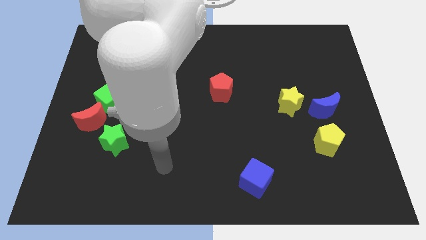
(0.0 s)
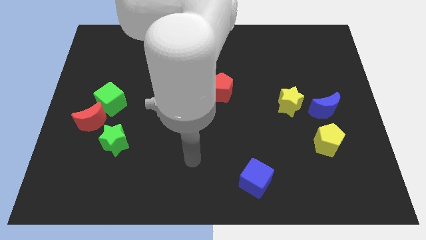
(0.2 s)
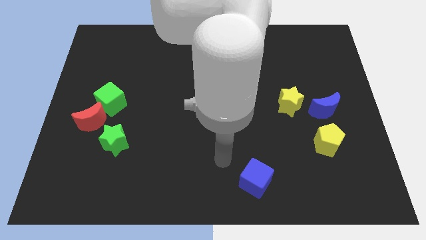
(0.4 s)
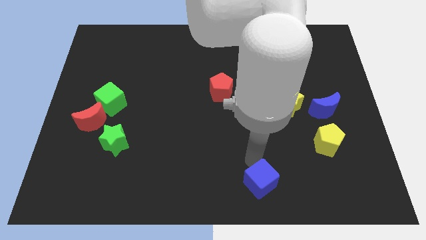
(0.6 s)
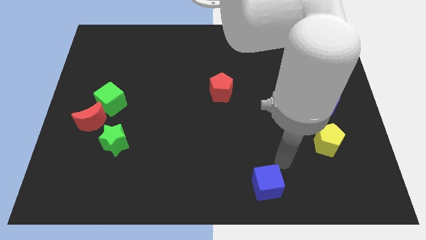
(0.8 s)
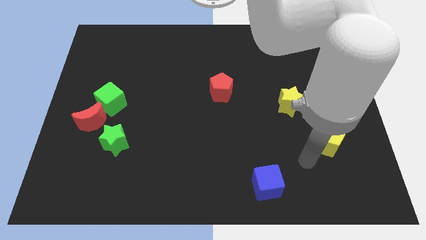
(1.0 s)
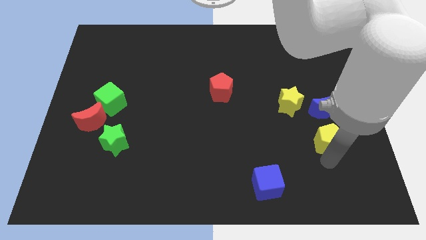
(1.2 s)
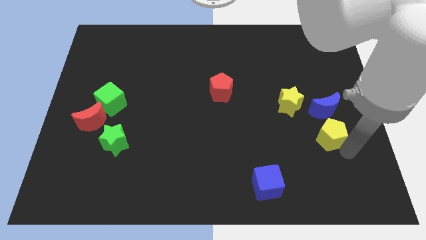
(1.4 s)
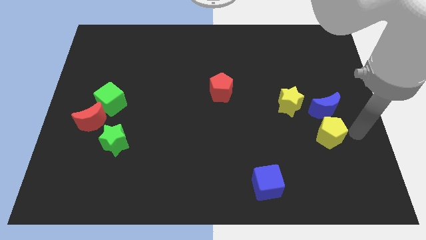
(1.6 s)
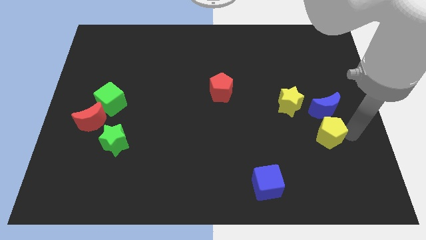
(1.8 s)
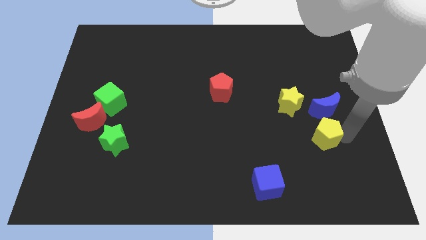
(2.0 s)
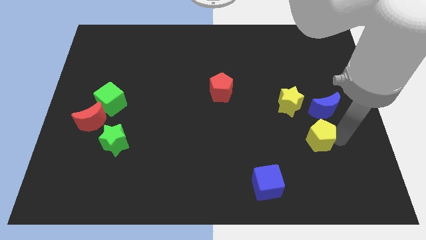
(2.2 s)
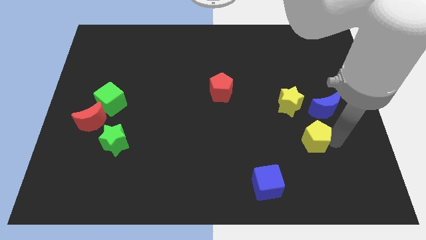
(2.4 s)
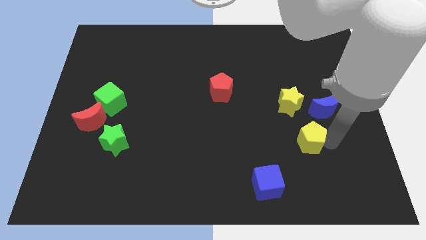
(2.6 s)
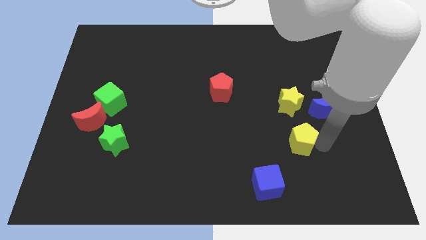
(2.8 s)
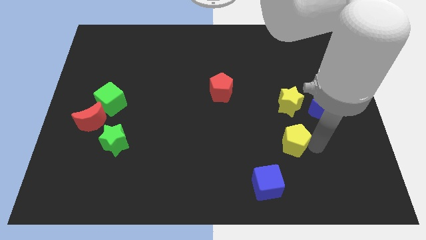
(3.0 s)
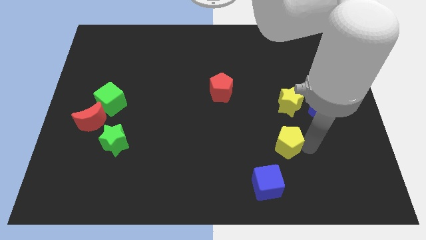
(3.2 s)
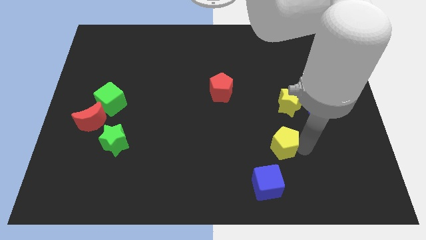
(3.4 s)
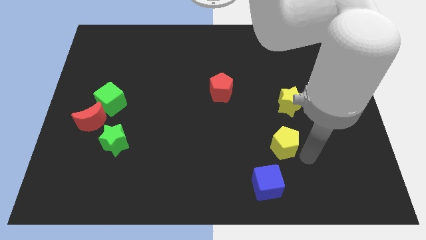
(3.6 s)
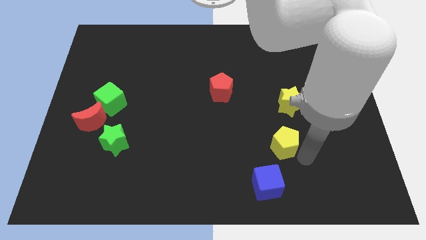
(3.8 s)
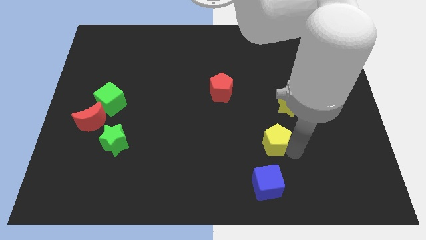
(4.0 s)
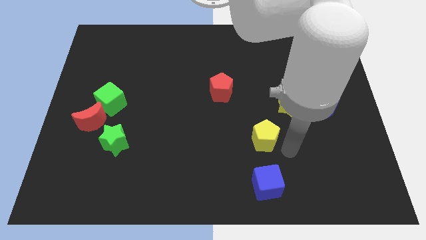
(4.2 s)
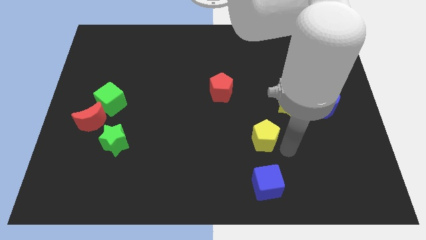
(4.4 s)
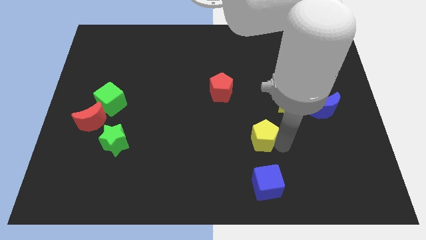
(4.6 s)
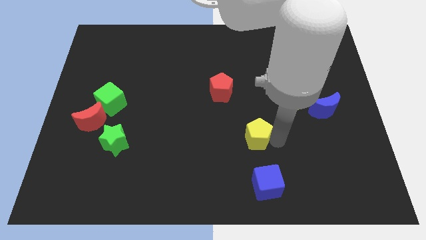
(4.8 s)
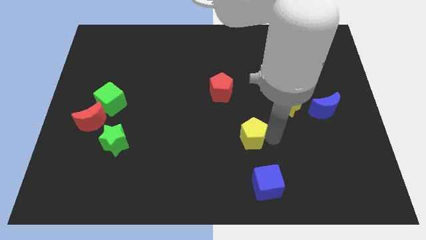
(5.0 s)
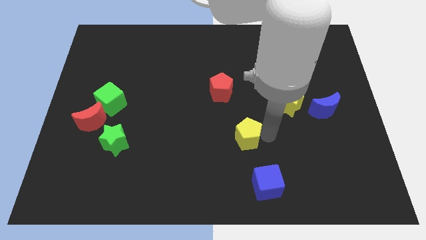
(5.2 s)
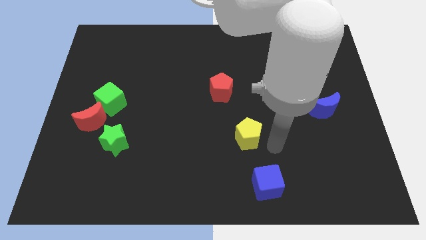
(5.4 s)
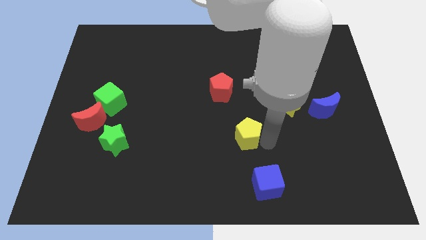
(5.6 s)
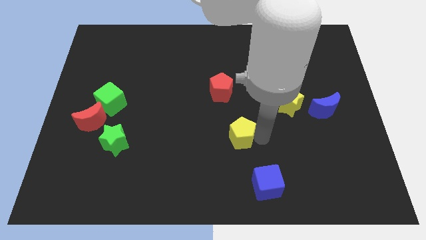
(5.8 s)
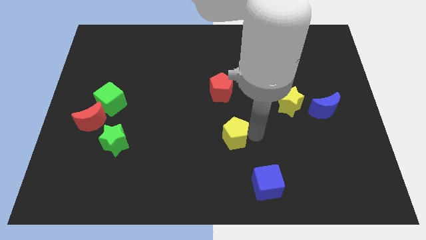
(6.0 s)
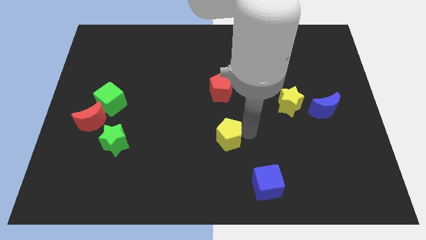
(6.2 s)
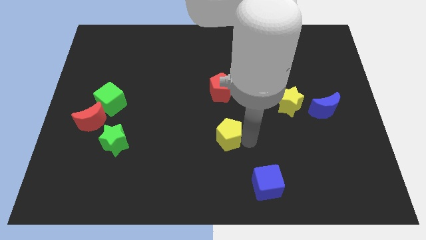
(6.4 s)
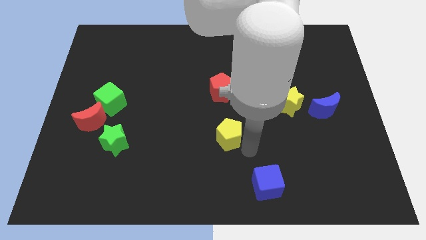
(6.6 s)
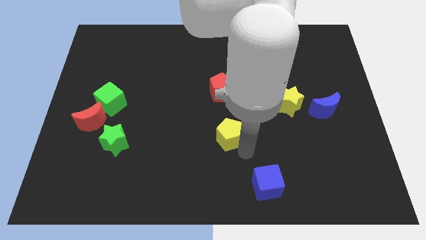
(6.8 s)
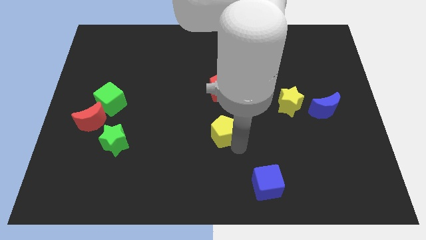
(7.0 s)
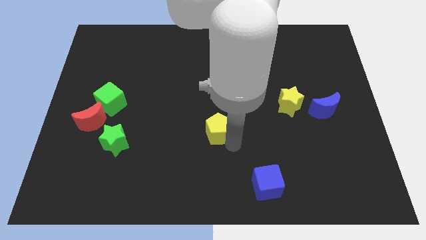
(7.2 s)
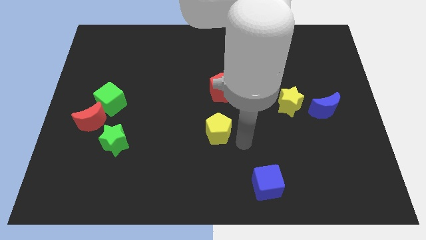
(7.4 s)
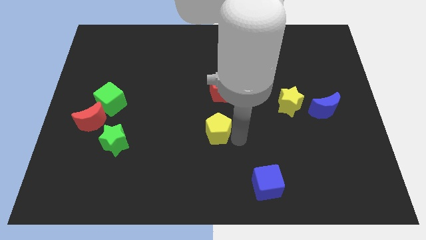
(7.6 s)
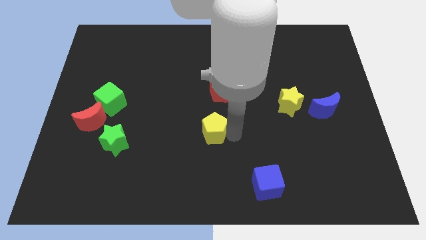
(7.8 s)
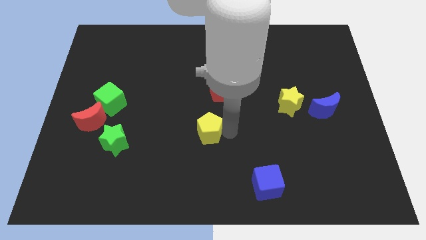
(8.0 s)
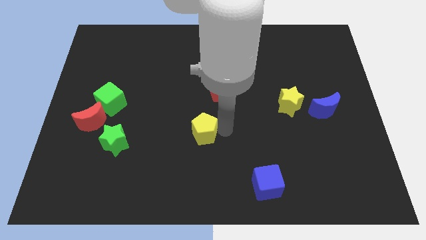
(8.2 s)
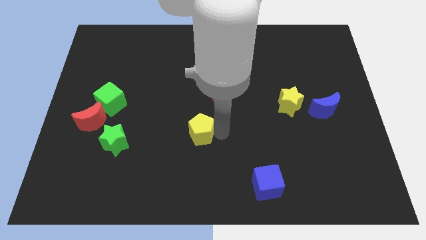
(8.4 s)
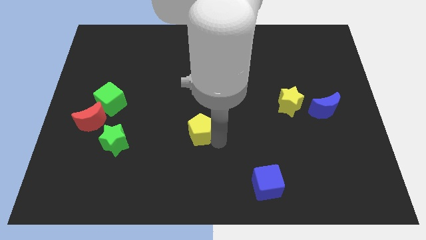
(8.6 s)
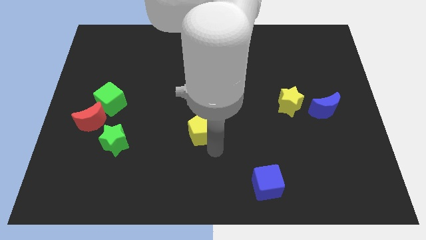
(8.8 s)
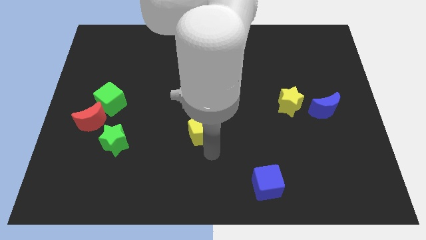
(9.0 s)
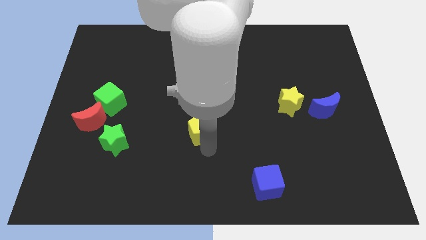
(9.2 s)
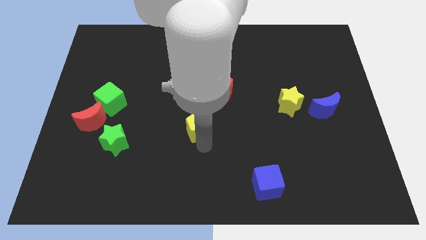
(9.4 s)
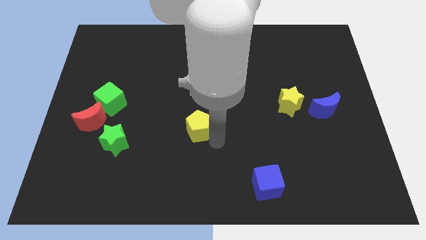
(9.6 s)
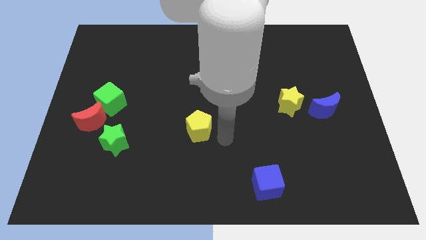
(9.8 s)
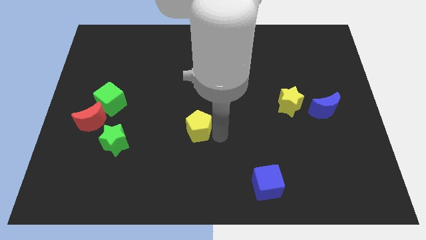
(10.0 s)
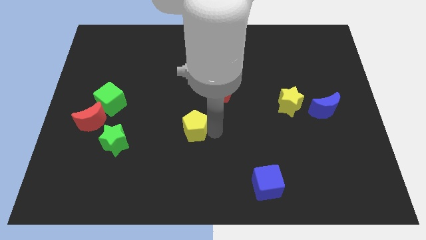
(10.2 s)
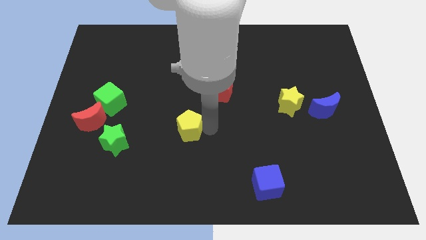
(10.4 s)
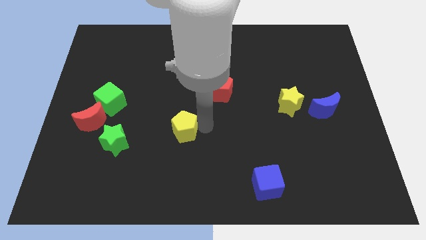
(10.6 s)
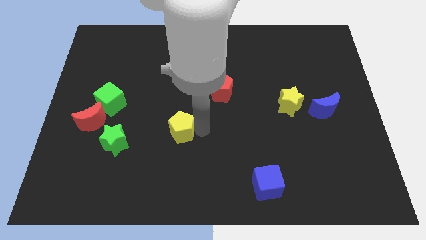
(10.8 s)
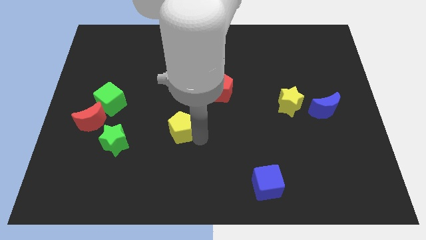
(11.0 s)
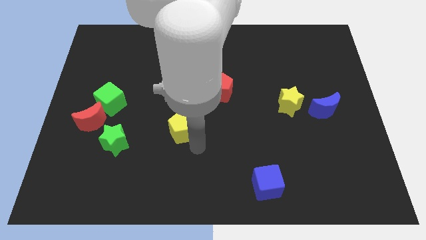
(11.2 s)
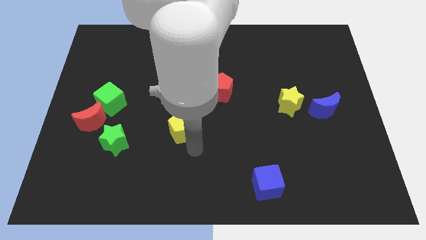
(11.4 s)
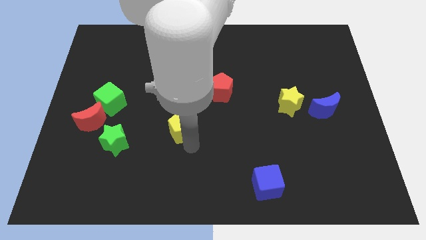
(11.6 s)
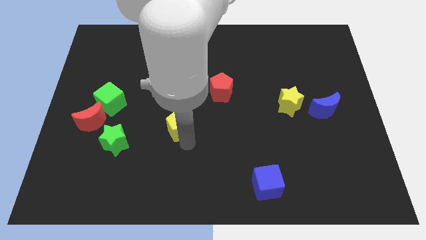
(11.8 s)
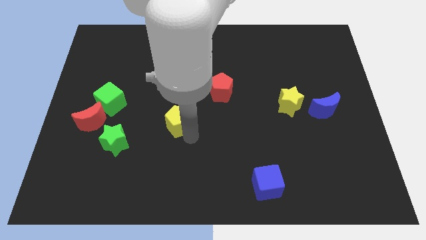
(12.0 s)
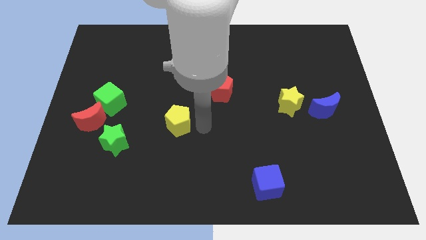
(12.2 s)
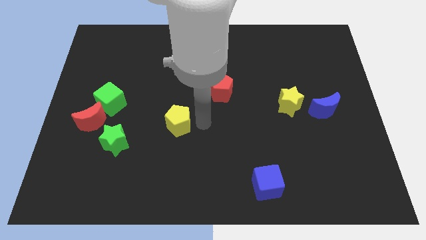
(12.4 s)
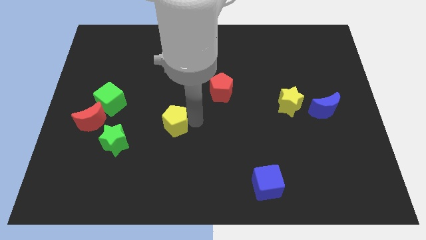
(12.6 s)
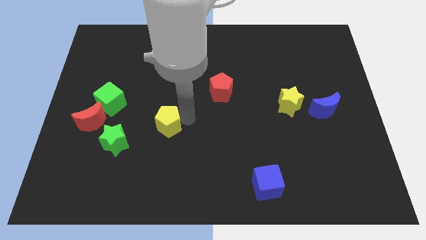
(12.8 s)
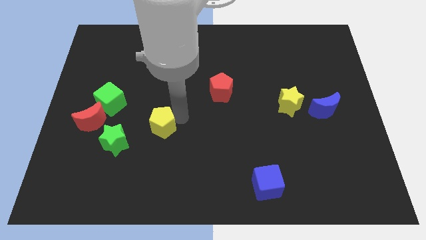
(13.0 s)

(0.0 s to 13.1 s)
put the yellow pentagon just right of the red moon

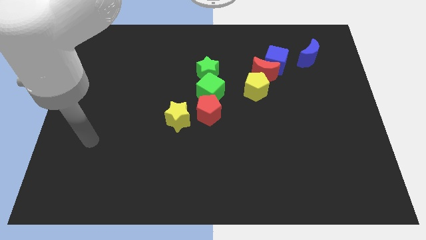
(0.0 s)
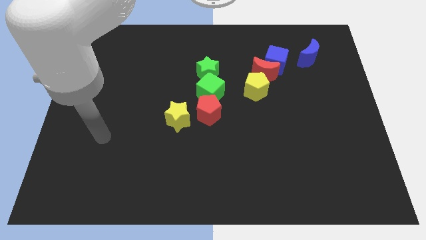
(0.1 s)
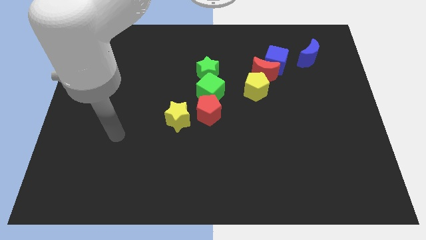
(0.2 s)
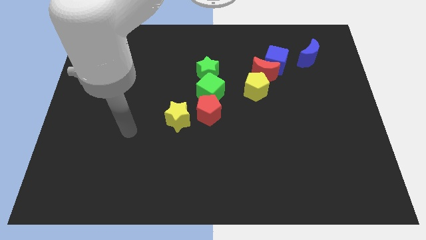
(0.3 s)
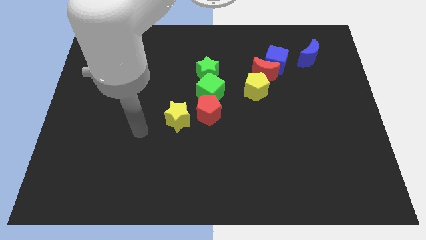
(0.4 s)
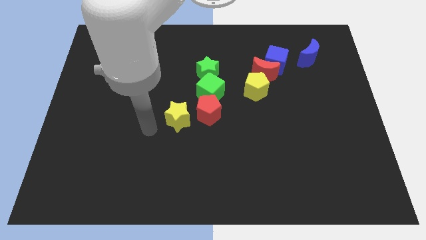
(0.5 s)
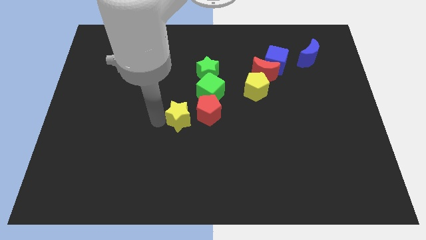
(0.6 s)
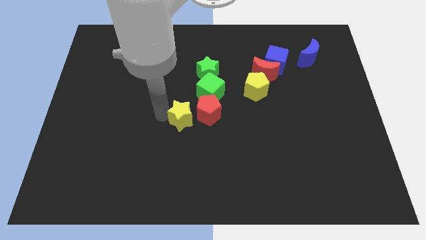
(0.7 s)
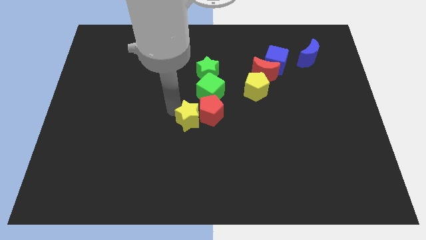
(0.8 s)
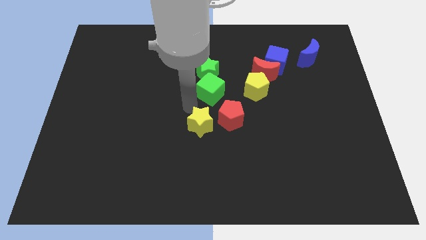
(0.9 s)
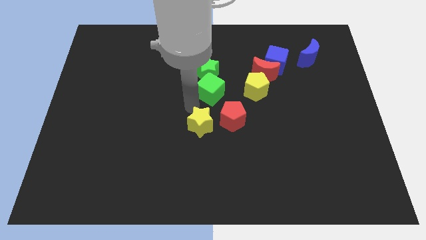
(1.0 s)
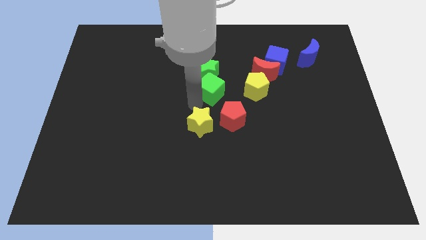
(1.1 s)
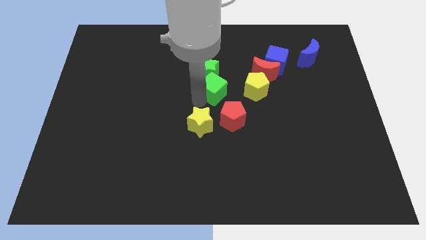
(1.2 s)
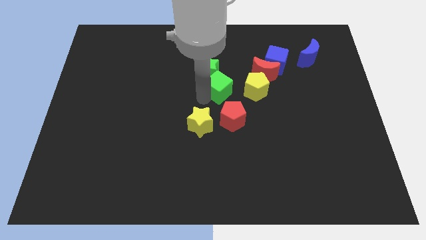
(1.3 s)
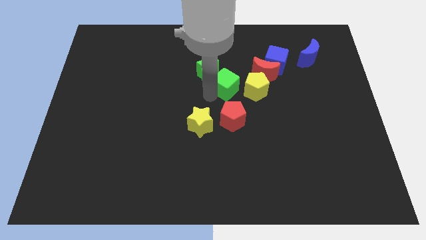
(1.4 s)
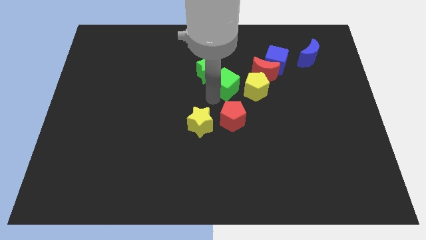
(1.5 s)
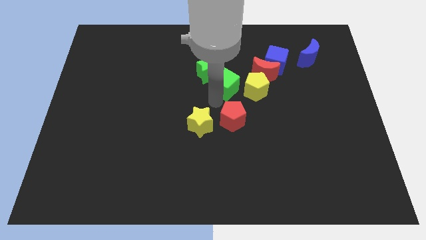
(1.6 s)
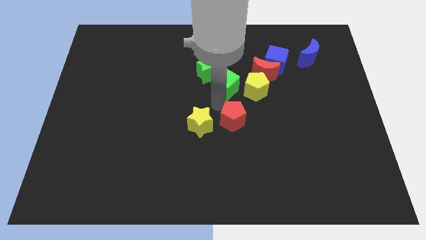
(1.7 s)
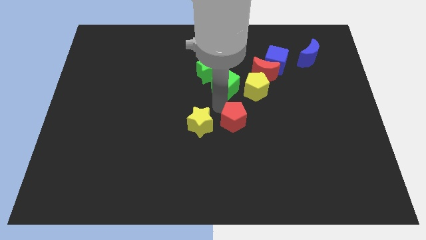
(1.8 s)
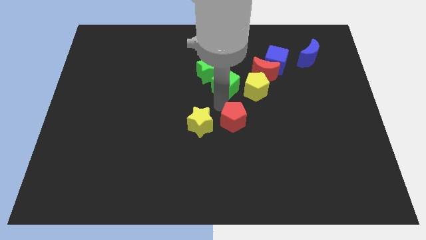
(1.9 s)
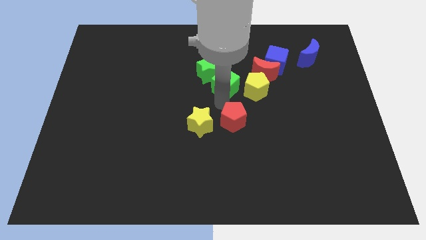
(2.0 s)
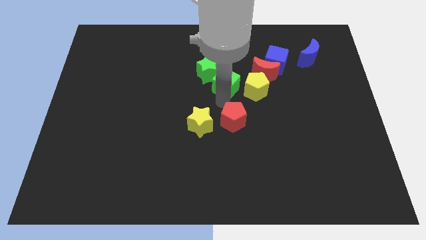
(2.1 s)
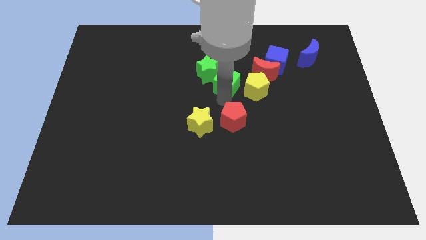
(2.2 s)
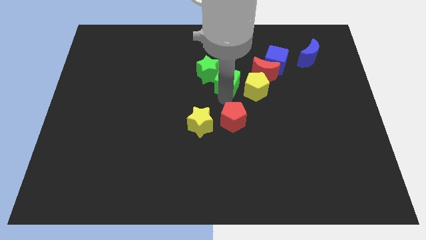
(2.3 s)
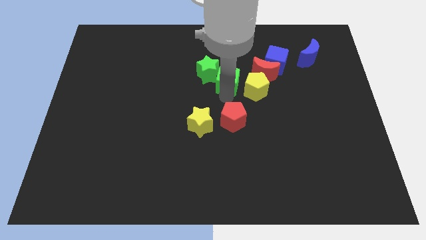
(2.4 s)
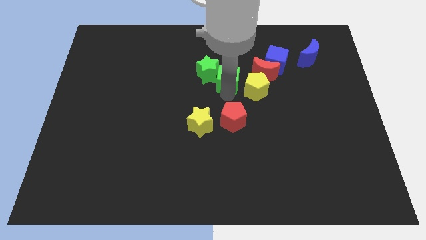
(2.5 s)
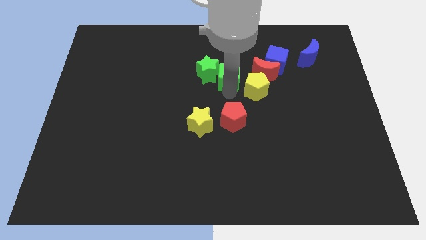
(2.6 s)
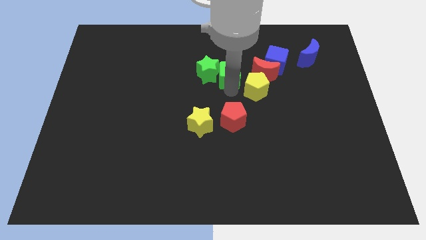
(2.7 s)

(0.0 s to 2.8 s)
slide the green cube to the top right of the green star
